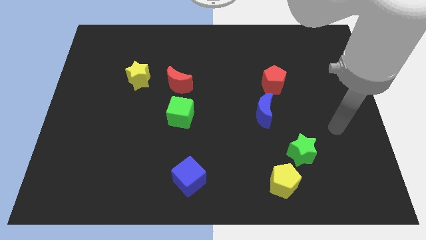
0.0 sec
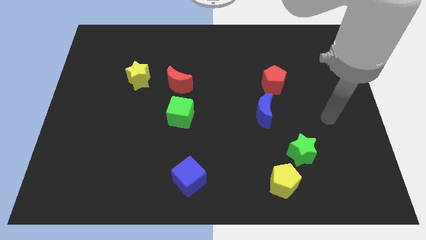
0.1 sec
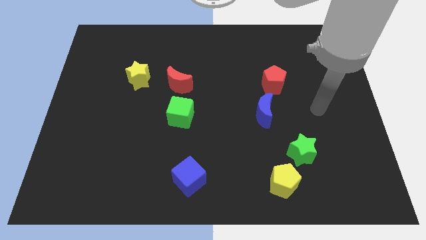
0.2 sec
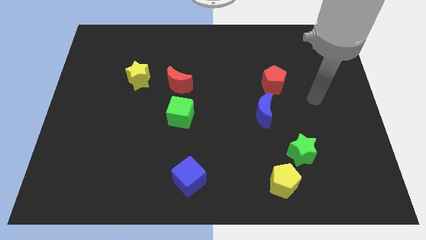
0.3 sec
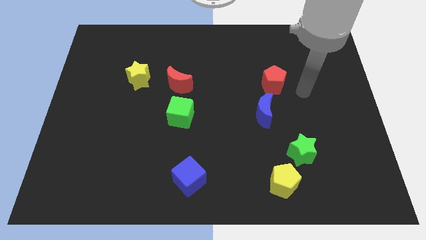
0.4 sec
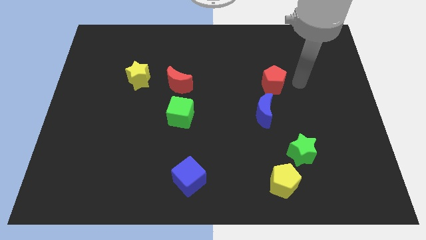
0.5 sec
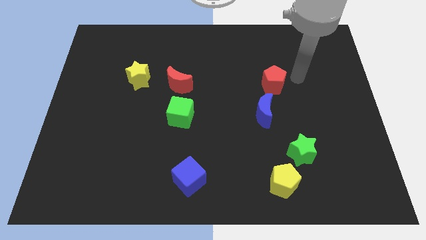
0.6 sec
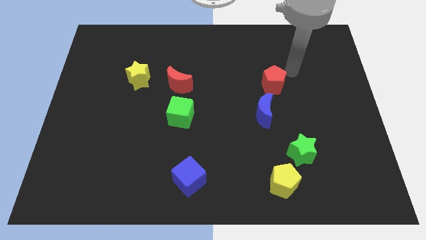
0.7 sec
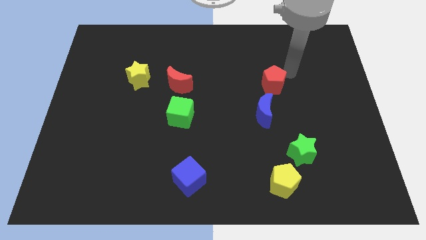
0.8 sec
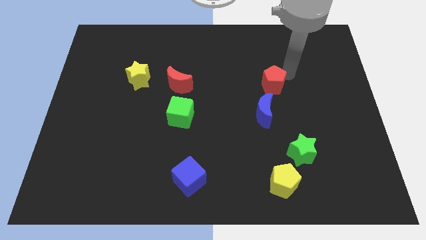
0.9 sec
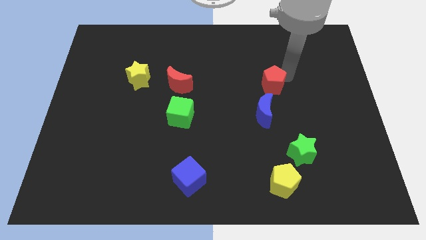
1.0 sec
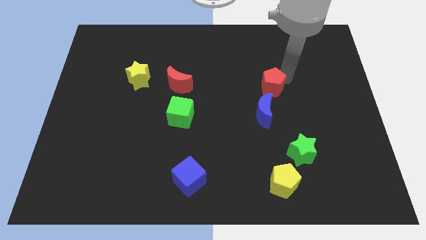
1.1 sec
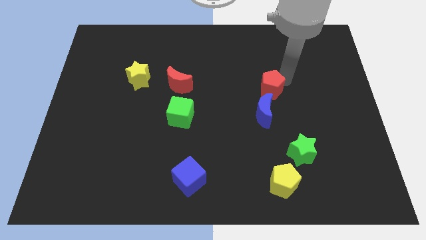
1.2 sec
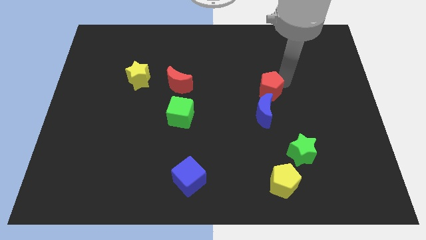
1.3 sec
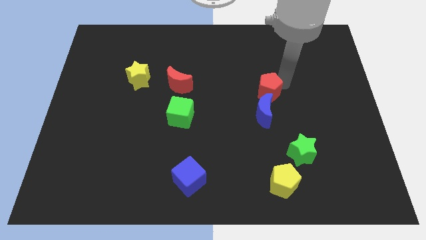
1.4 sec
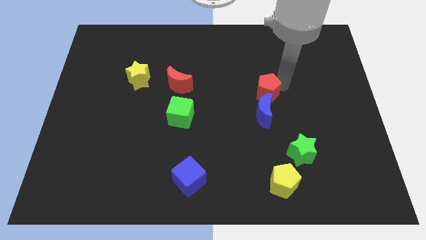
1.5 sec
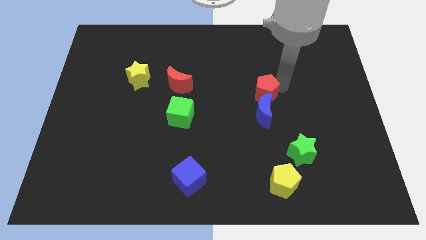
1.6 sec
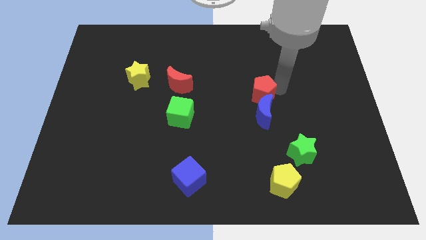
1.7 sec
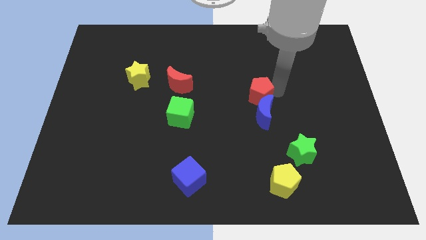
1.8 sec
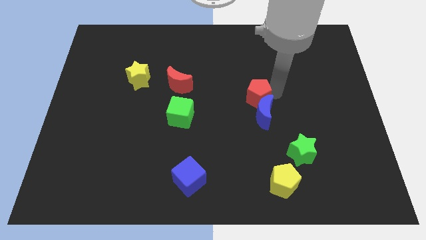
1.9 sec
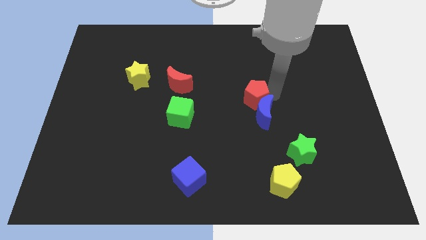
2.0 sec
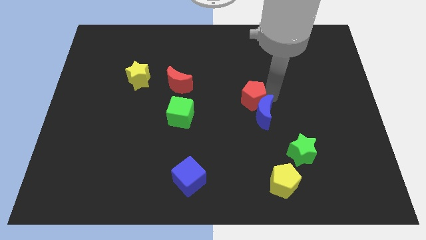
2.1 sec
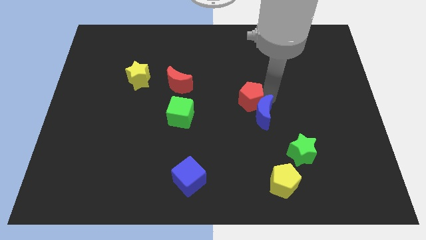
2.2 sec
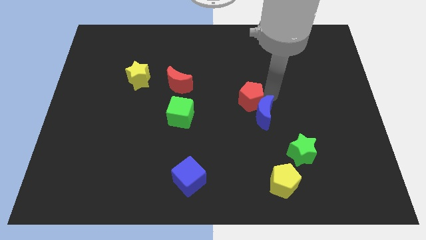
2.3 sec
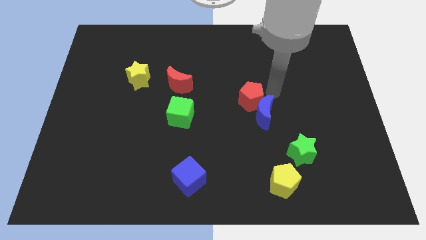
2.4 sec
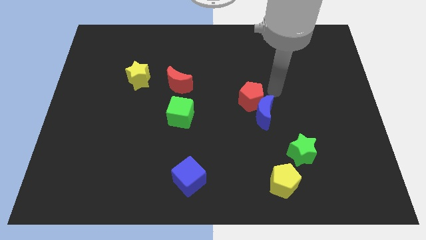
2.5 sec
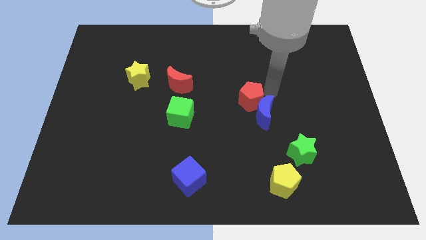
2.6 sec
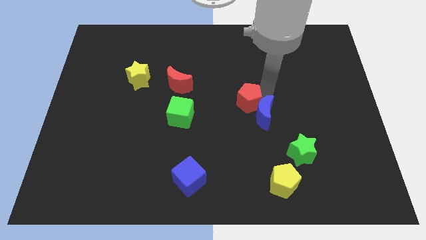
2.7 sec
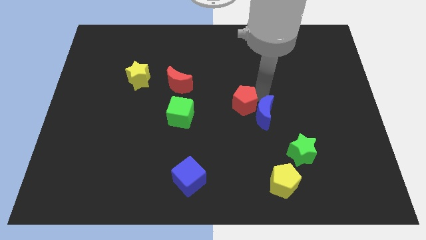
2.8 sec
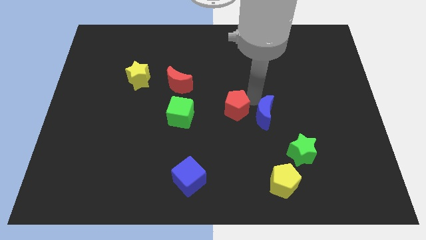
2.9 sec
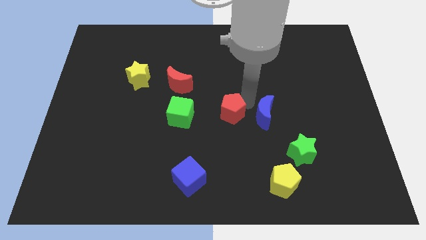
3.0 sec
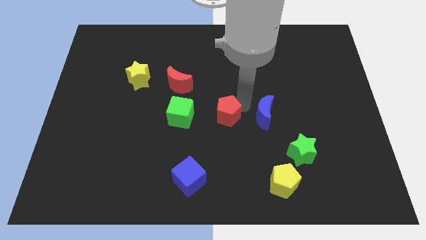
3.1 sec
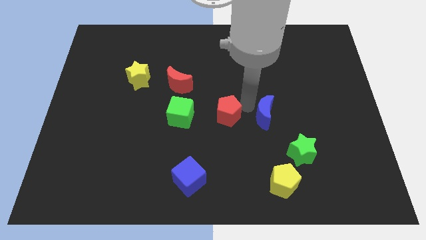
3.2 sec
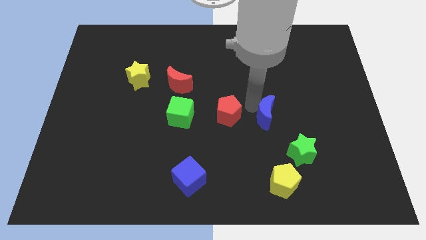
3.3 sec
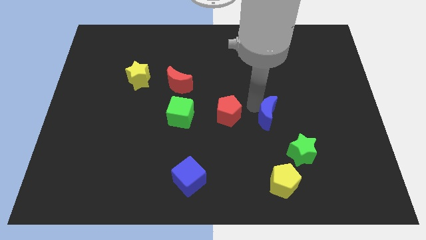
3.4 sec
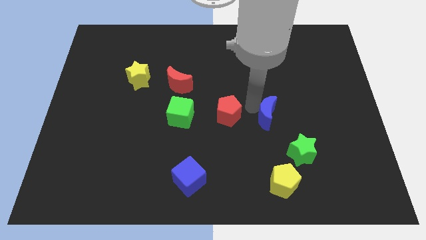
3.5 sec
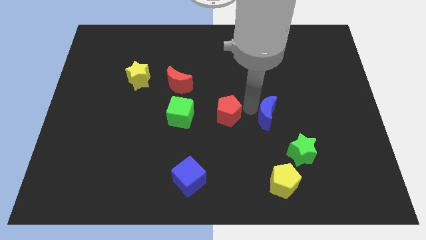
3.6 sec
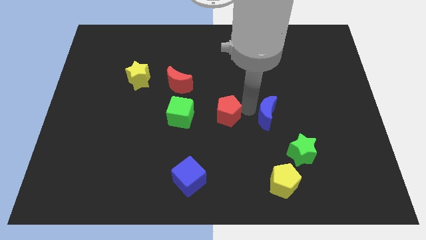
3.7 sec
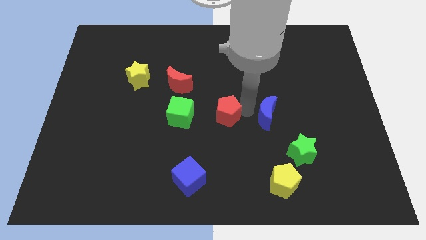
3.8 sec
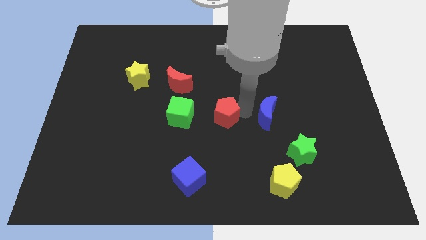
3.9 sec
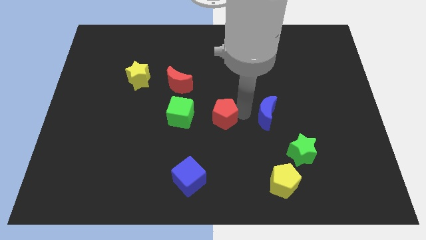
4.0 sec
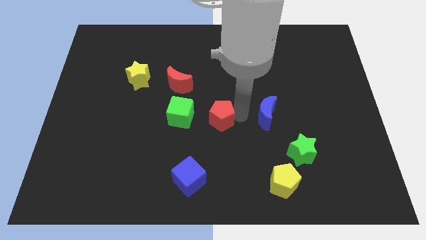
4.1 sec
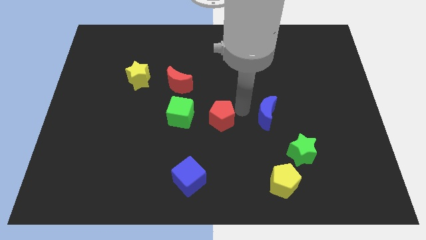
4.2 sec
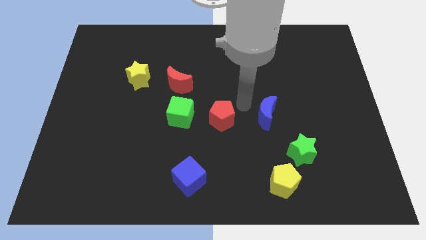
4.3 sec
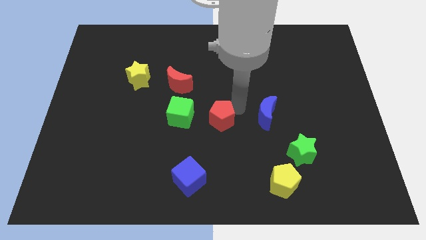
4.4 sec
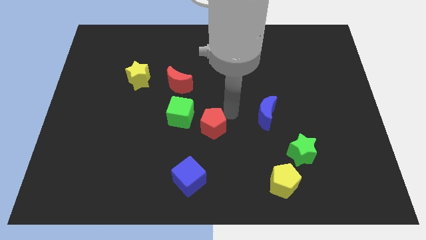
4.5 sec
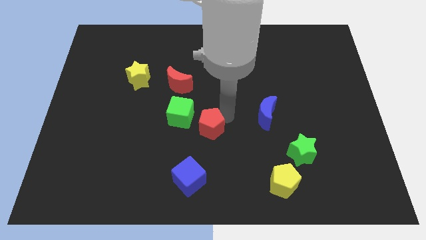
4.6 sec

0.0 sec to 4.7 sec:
push the red pentagon down and left diagonally

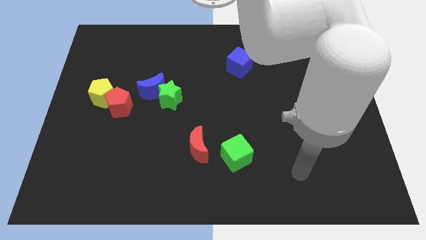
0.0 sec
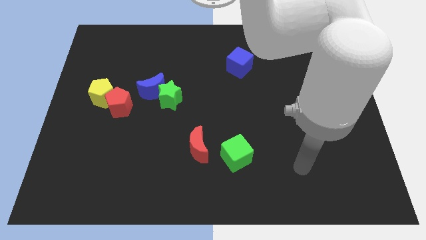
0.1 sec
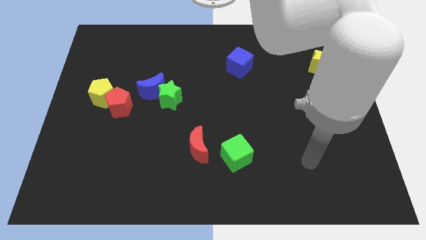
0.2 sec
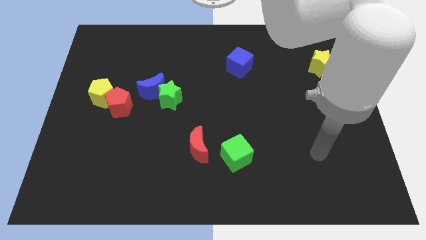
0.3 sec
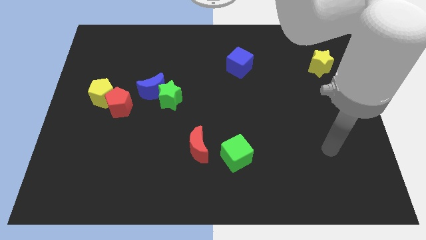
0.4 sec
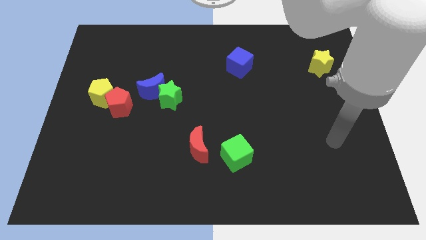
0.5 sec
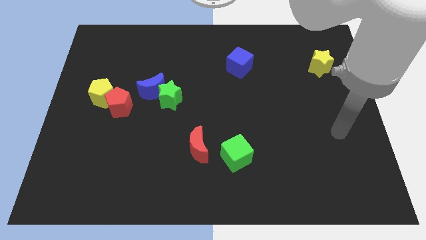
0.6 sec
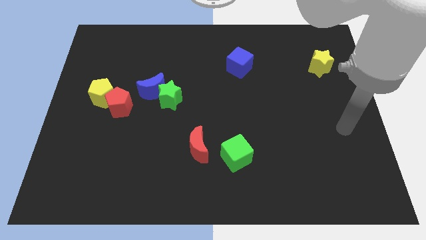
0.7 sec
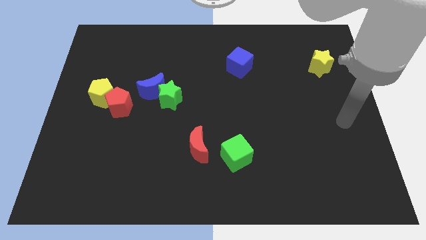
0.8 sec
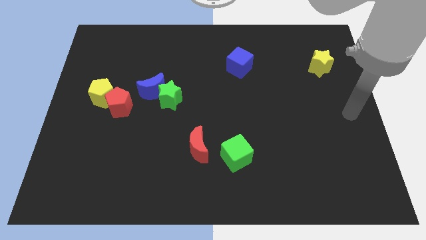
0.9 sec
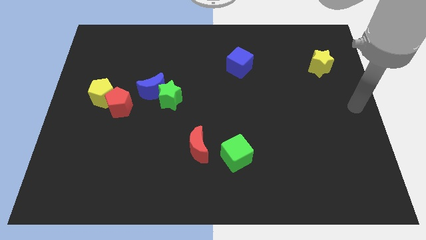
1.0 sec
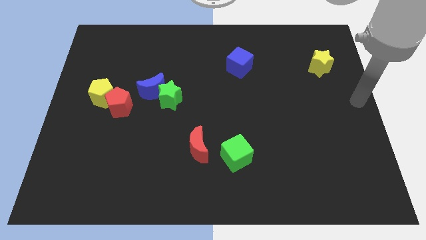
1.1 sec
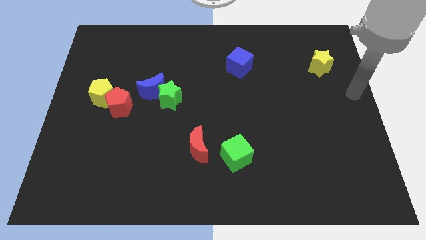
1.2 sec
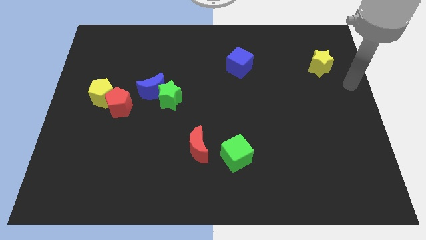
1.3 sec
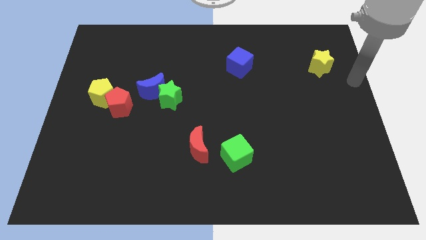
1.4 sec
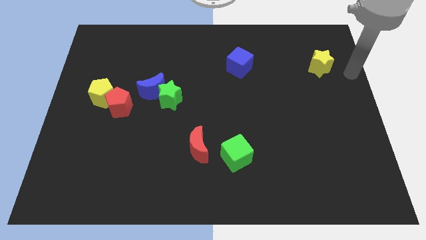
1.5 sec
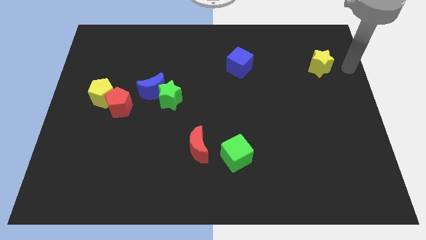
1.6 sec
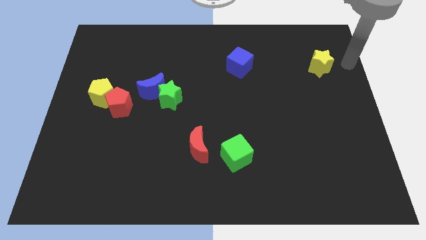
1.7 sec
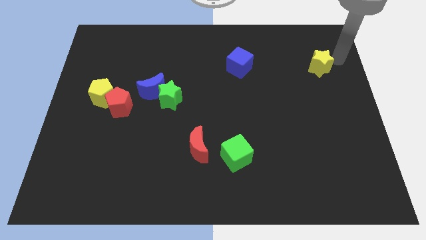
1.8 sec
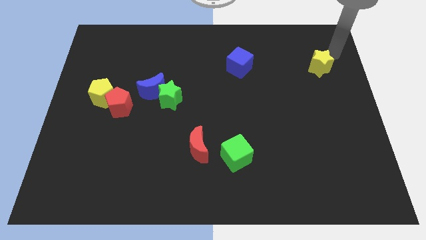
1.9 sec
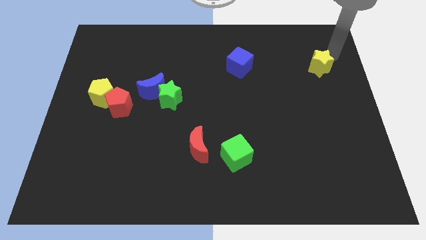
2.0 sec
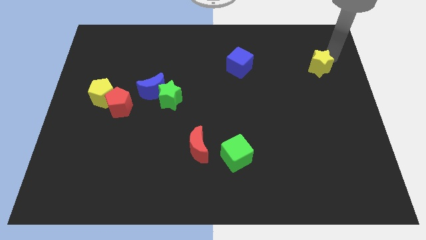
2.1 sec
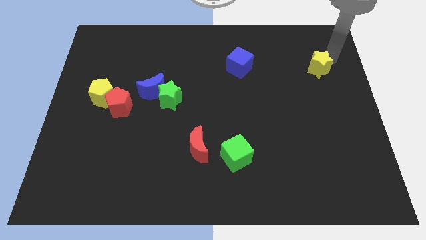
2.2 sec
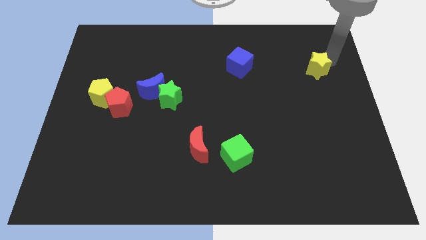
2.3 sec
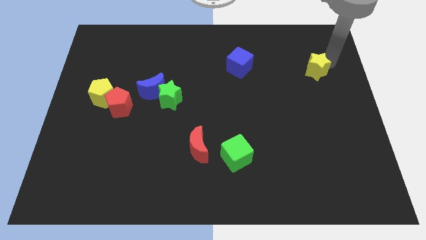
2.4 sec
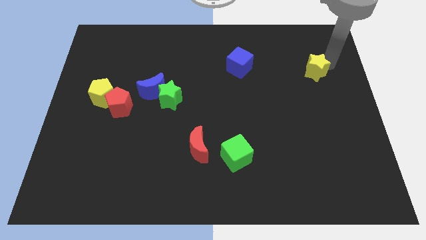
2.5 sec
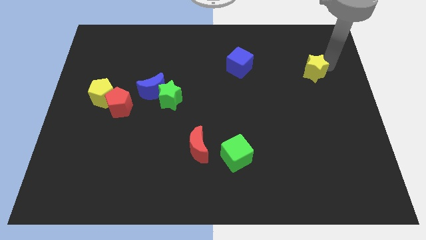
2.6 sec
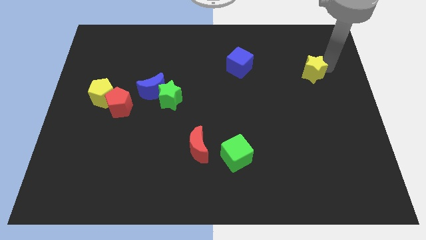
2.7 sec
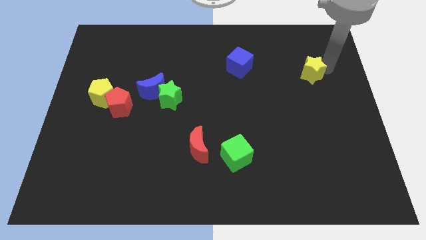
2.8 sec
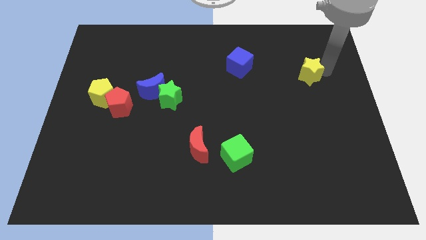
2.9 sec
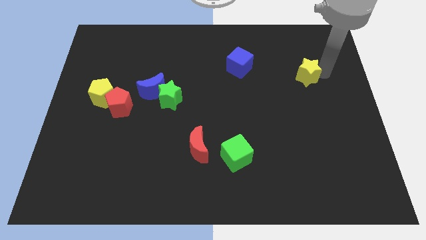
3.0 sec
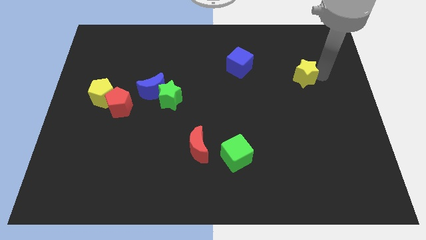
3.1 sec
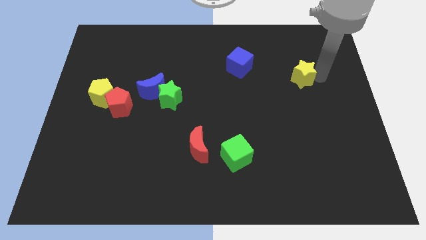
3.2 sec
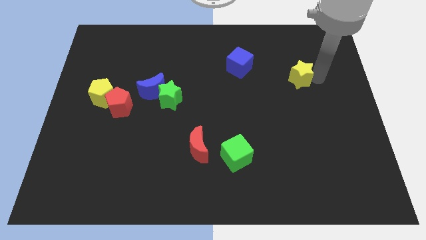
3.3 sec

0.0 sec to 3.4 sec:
move the yellow star slightly down and then left

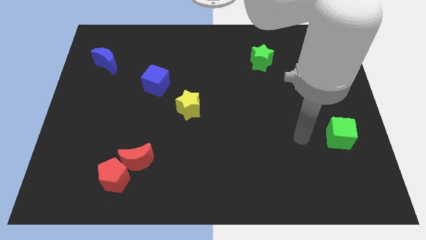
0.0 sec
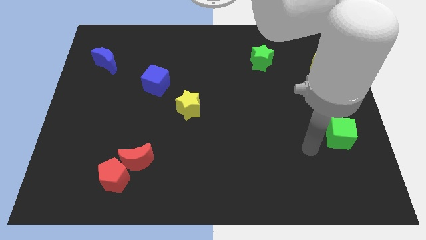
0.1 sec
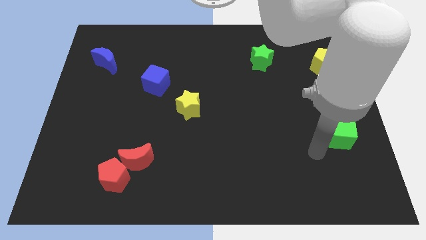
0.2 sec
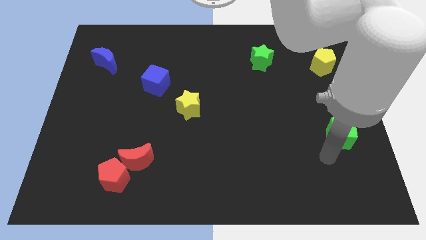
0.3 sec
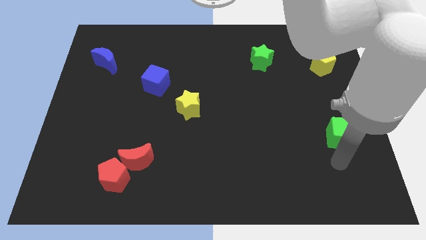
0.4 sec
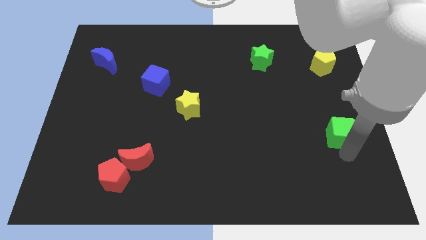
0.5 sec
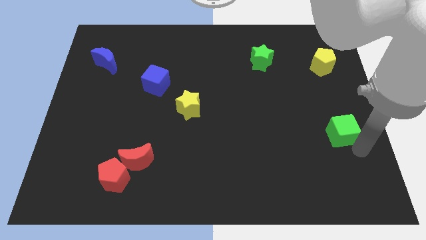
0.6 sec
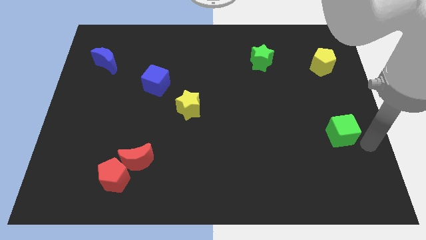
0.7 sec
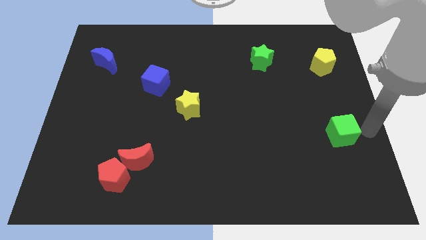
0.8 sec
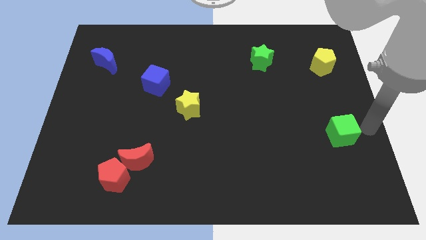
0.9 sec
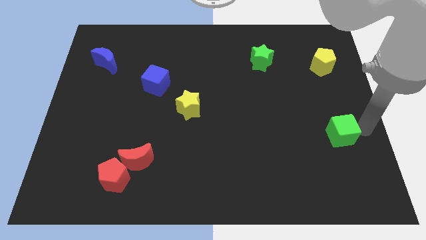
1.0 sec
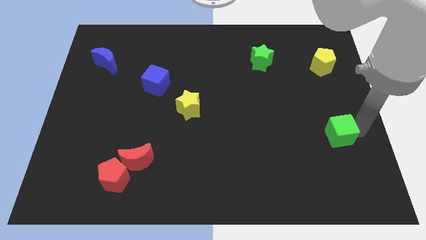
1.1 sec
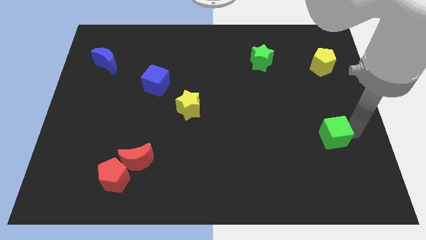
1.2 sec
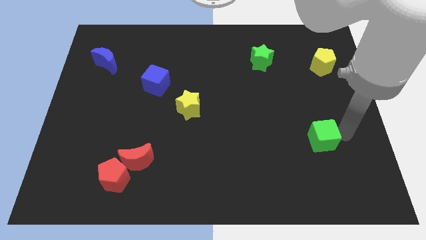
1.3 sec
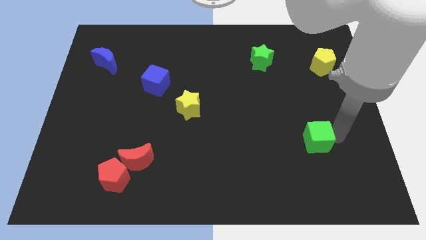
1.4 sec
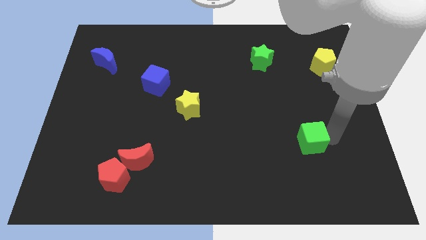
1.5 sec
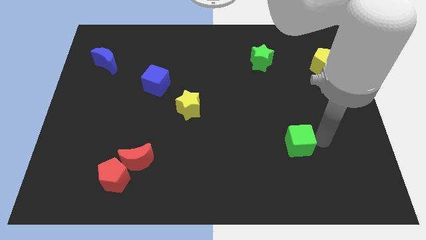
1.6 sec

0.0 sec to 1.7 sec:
push the green cube a little bit to the left
